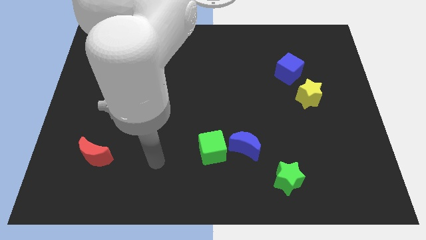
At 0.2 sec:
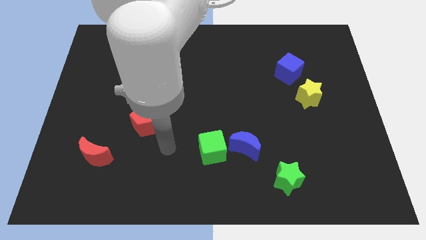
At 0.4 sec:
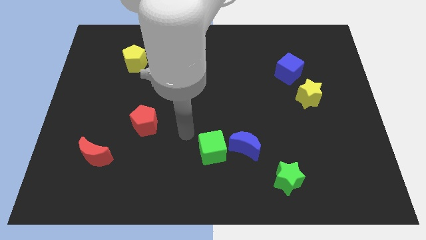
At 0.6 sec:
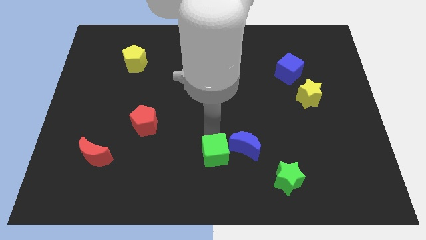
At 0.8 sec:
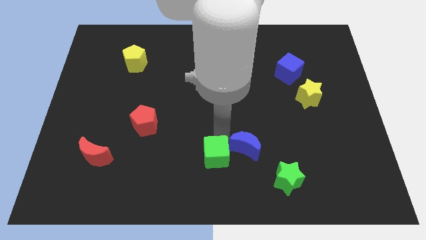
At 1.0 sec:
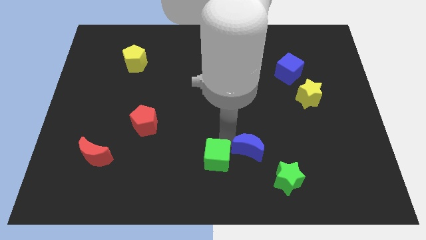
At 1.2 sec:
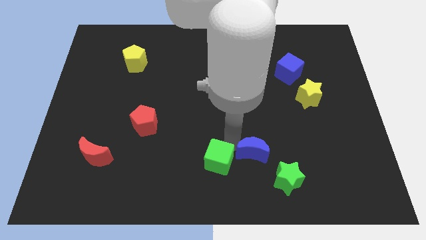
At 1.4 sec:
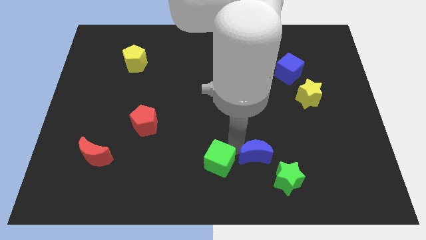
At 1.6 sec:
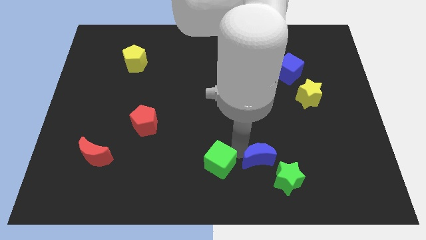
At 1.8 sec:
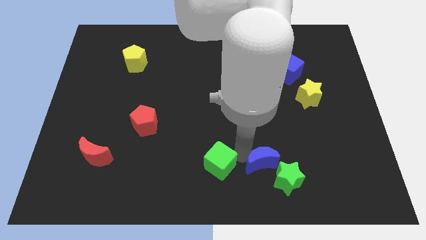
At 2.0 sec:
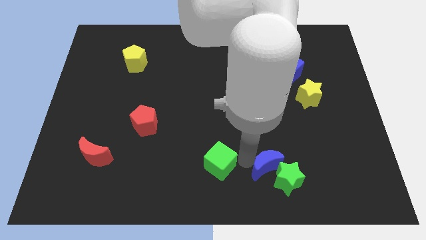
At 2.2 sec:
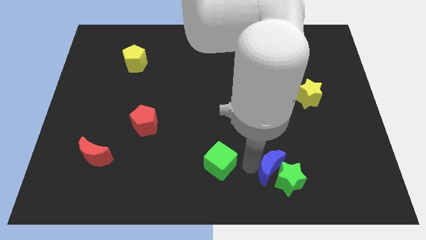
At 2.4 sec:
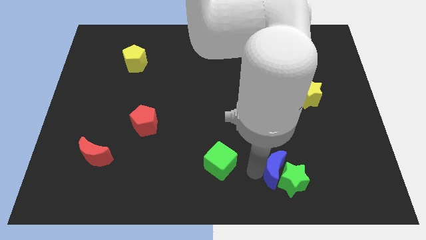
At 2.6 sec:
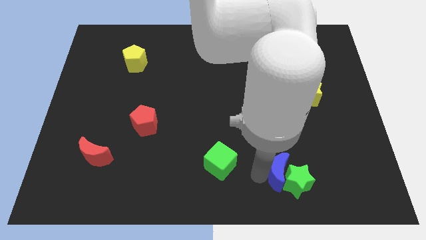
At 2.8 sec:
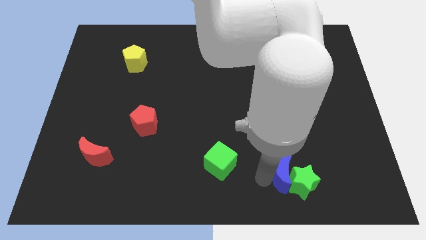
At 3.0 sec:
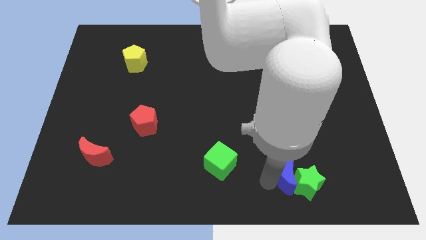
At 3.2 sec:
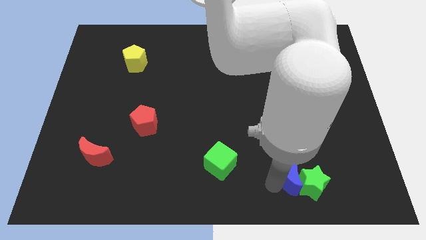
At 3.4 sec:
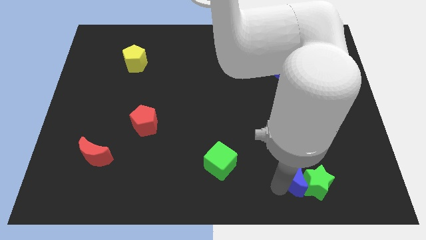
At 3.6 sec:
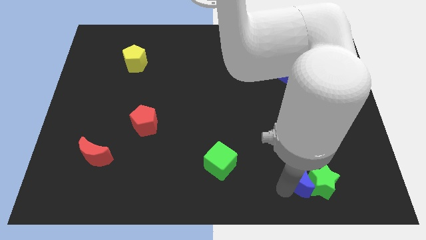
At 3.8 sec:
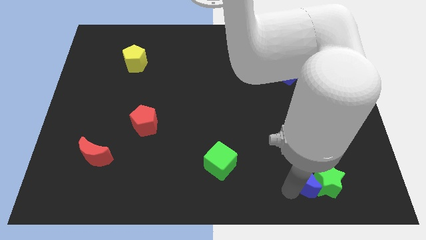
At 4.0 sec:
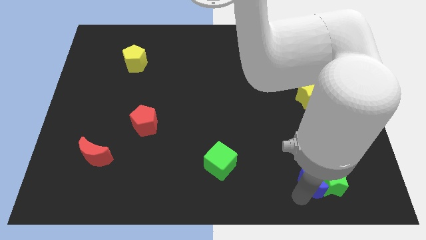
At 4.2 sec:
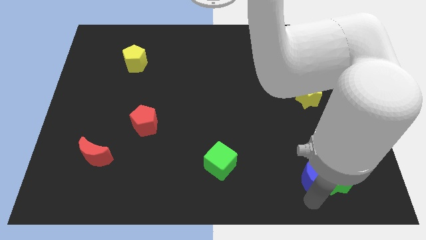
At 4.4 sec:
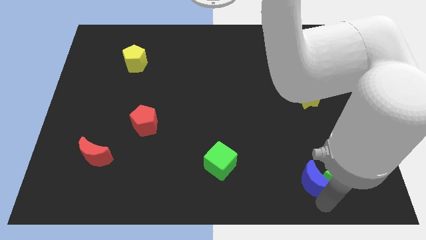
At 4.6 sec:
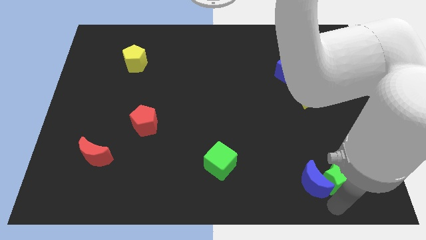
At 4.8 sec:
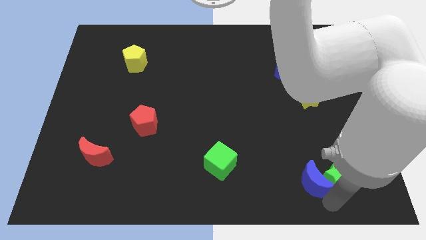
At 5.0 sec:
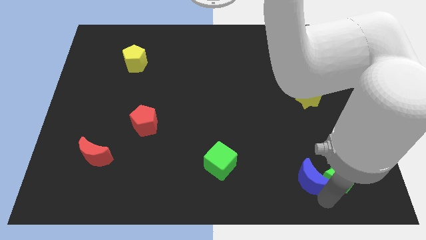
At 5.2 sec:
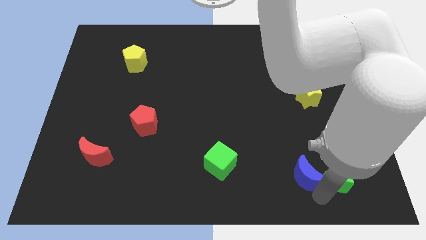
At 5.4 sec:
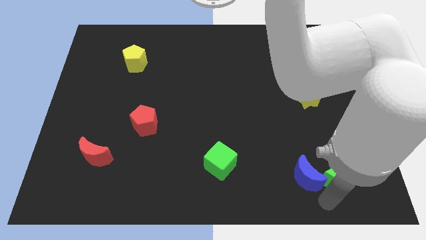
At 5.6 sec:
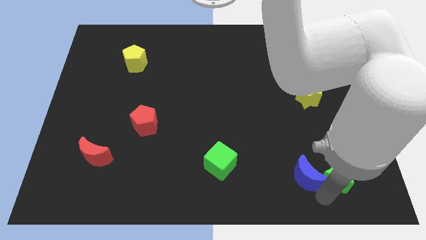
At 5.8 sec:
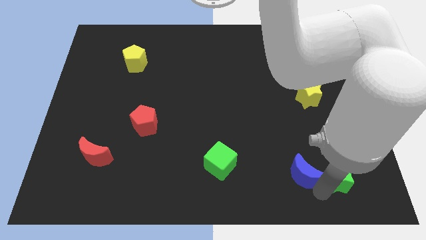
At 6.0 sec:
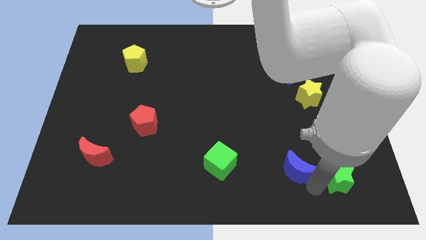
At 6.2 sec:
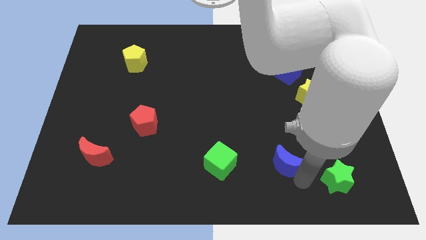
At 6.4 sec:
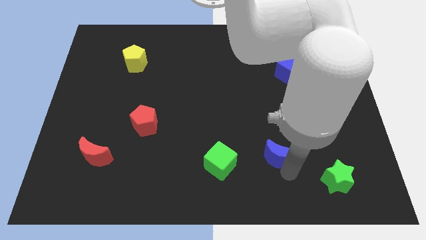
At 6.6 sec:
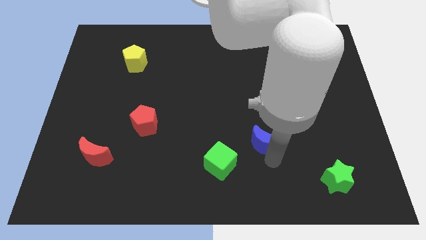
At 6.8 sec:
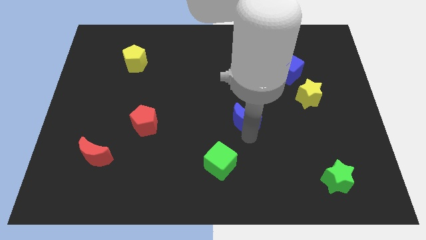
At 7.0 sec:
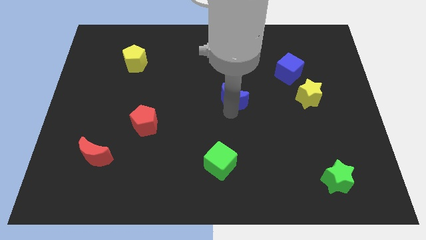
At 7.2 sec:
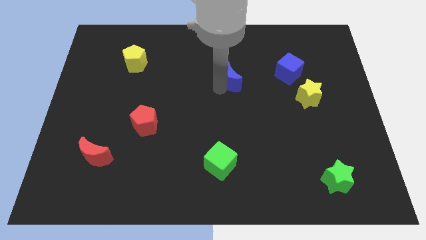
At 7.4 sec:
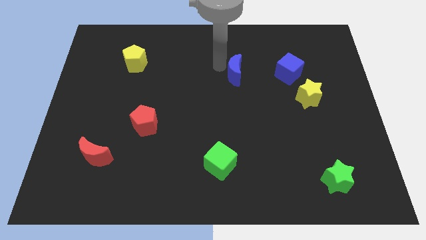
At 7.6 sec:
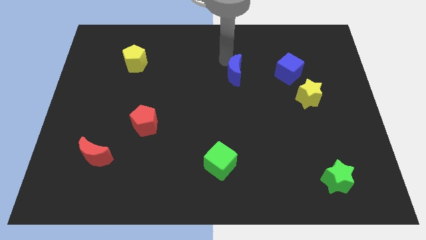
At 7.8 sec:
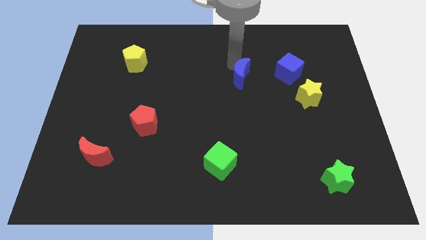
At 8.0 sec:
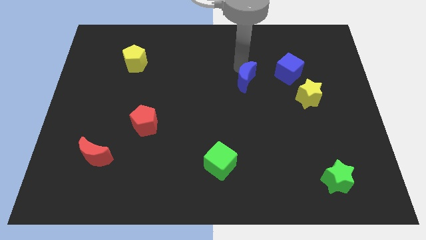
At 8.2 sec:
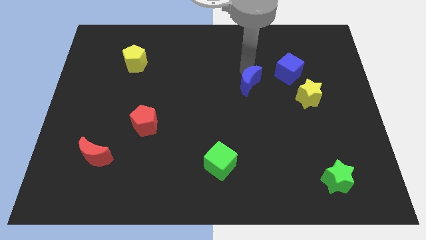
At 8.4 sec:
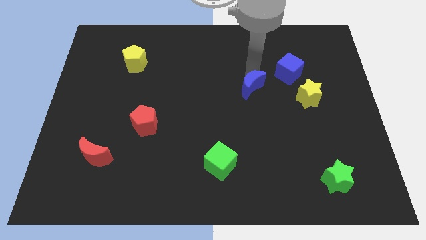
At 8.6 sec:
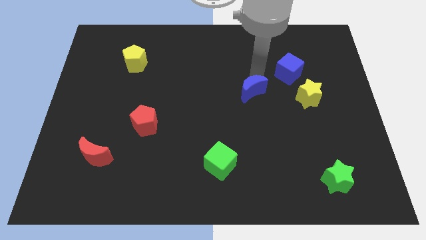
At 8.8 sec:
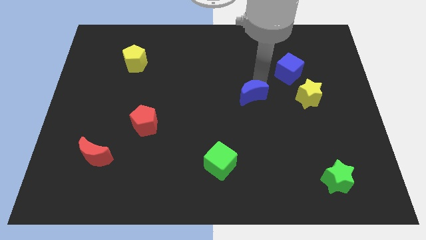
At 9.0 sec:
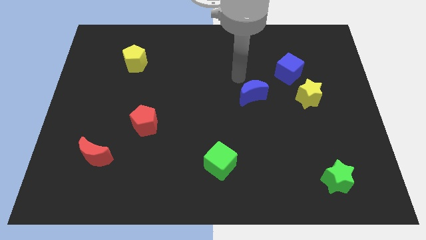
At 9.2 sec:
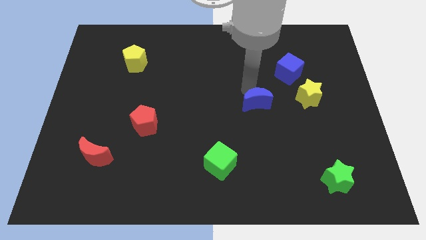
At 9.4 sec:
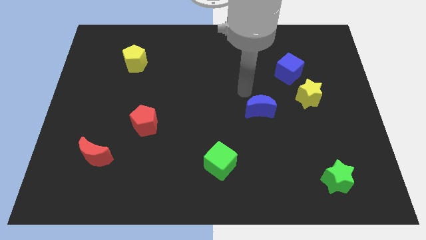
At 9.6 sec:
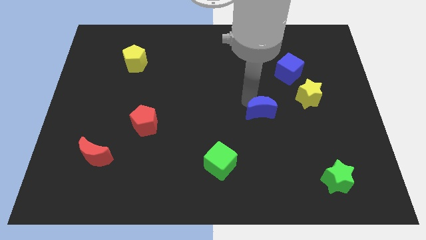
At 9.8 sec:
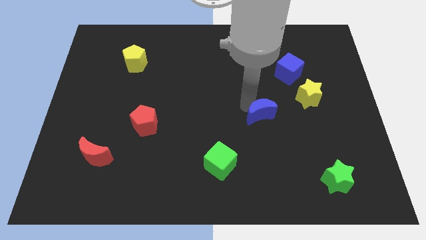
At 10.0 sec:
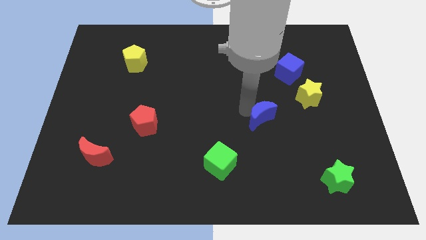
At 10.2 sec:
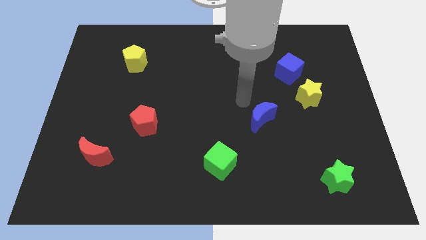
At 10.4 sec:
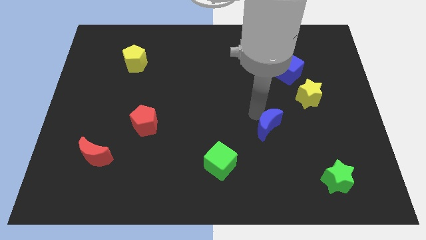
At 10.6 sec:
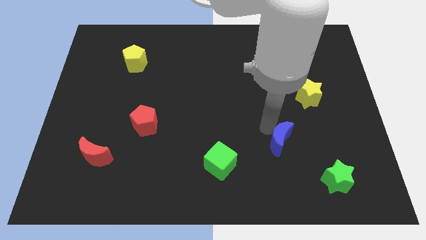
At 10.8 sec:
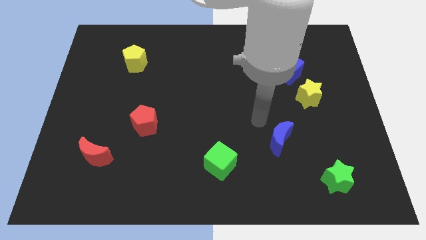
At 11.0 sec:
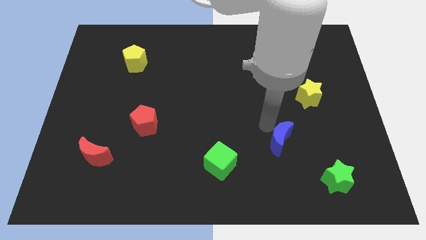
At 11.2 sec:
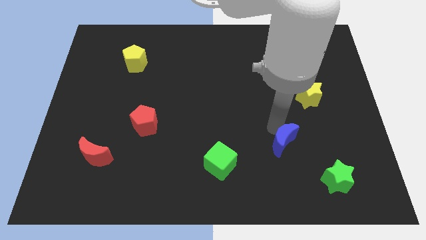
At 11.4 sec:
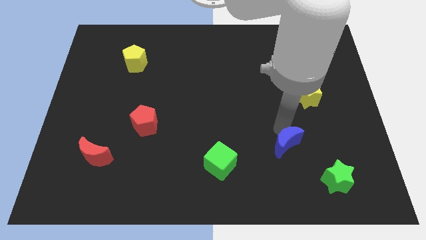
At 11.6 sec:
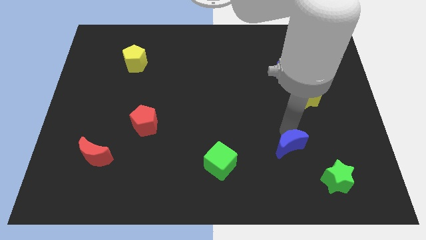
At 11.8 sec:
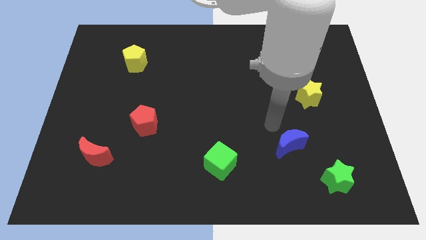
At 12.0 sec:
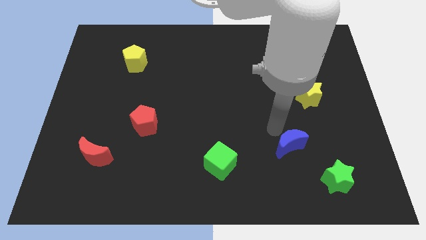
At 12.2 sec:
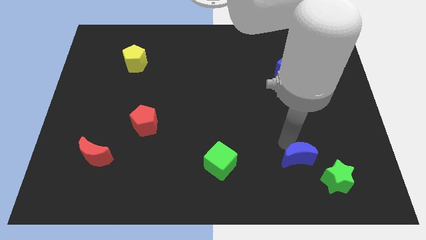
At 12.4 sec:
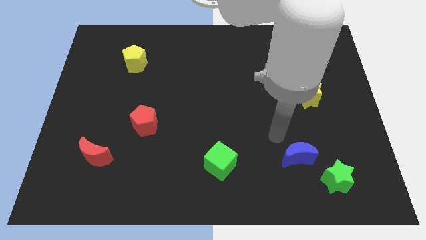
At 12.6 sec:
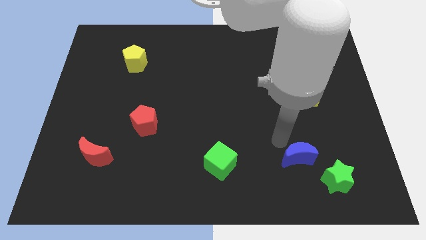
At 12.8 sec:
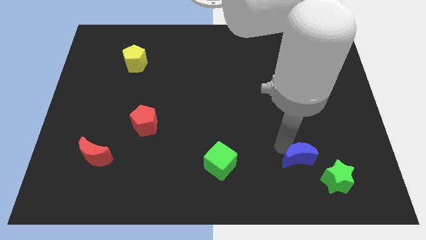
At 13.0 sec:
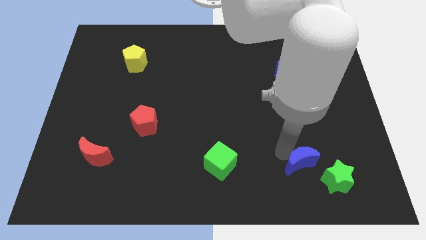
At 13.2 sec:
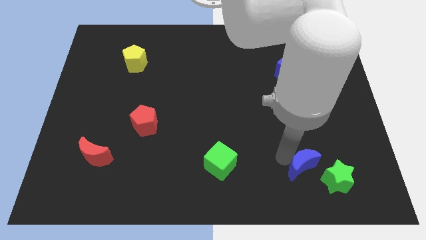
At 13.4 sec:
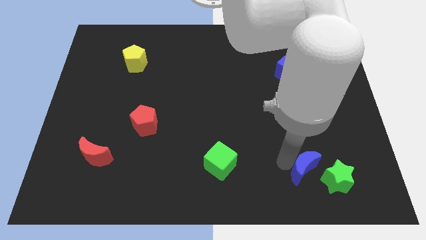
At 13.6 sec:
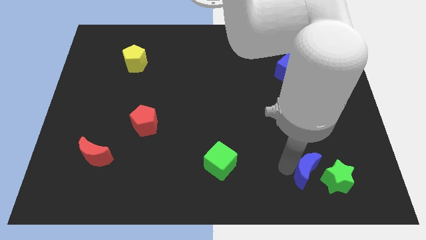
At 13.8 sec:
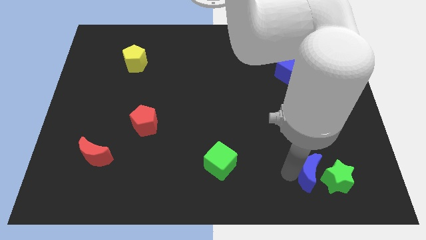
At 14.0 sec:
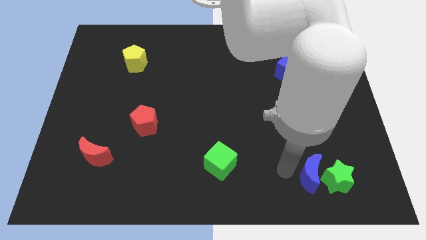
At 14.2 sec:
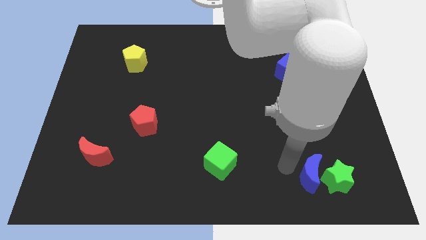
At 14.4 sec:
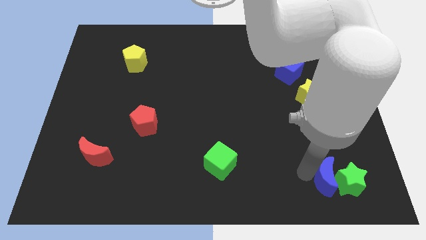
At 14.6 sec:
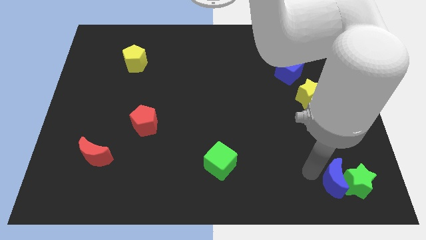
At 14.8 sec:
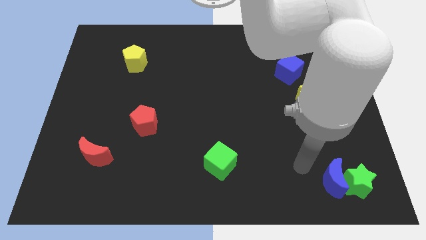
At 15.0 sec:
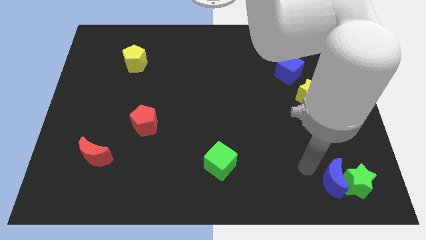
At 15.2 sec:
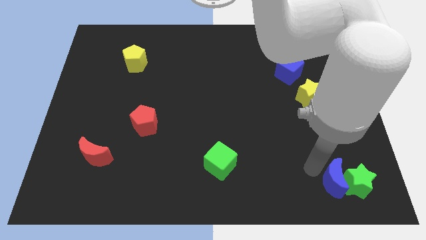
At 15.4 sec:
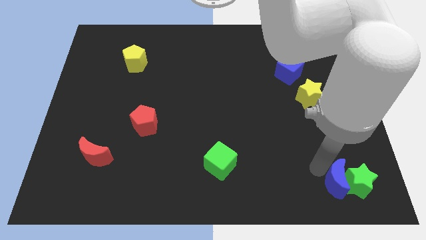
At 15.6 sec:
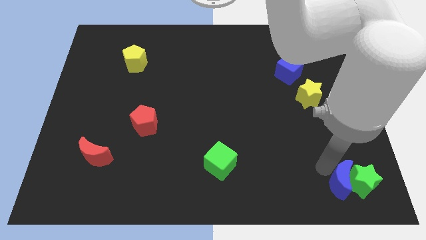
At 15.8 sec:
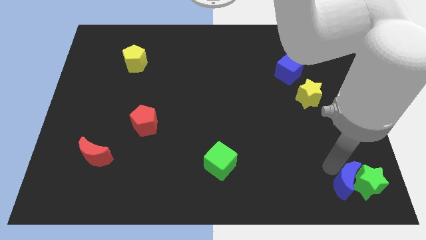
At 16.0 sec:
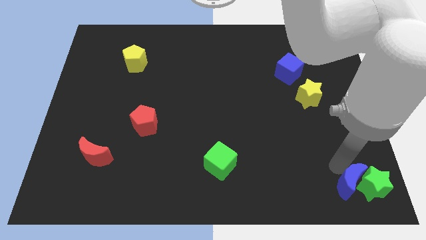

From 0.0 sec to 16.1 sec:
push the blue moon to the bottom right corner

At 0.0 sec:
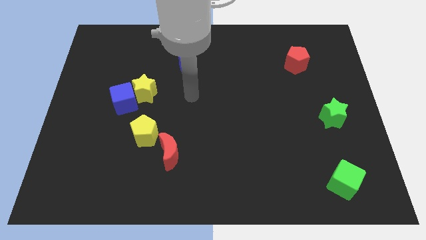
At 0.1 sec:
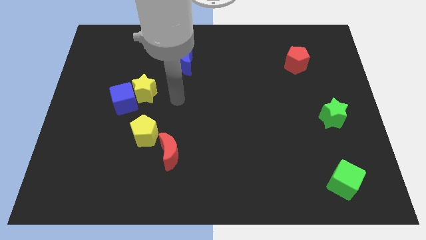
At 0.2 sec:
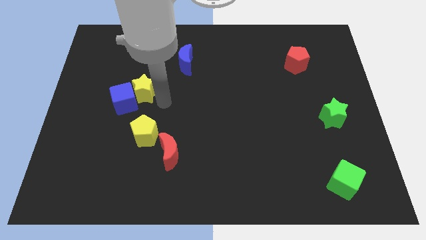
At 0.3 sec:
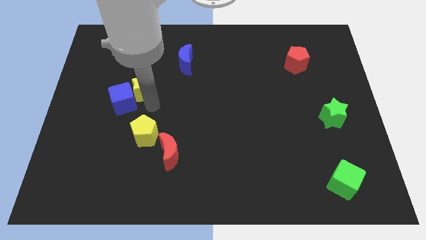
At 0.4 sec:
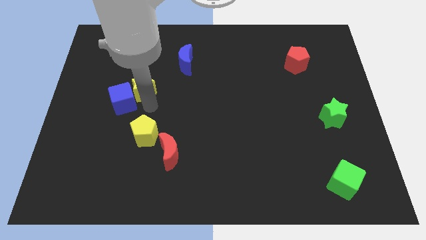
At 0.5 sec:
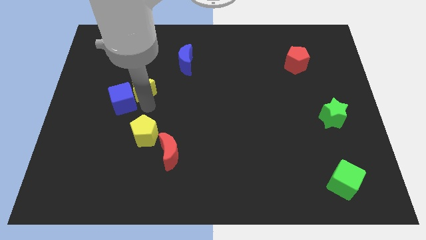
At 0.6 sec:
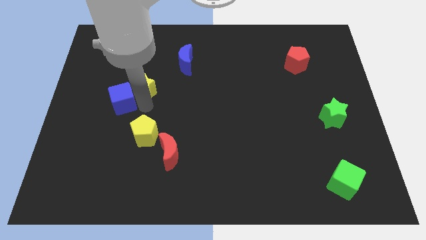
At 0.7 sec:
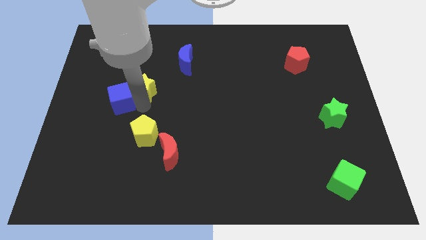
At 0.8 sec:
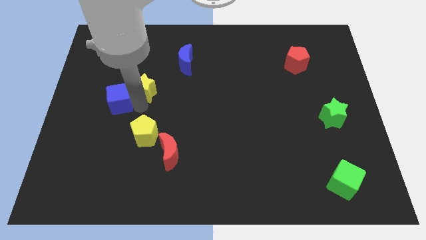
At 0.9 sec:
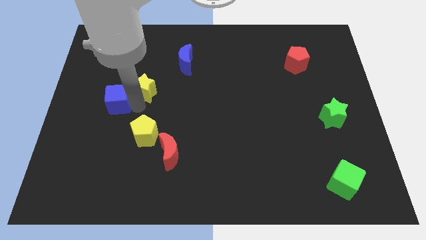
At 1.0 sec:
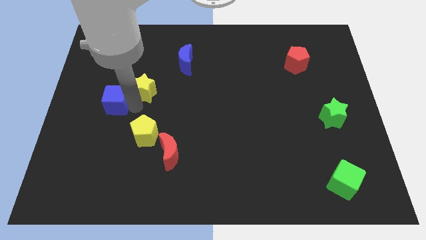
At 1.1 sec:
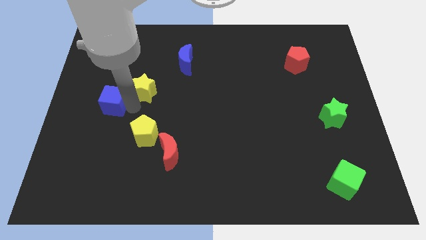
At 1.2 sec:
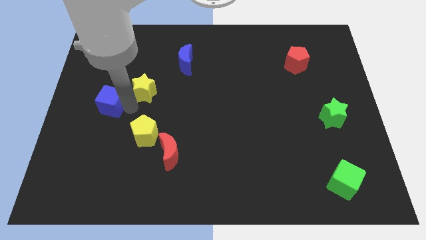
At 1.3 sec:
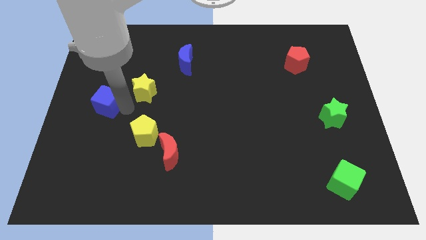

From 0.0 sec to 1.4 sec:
slide the blue cube to the center left
